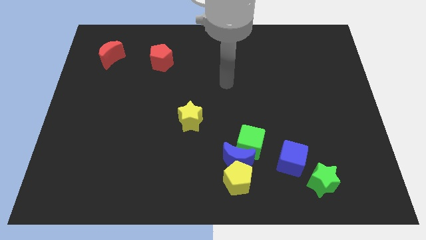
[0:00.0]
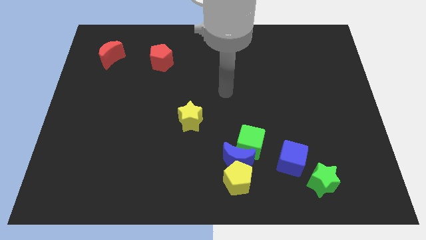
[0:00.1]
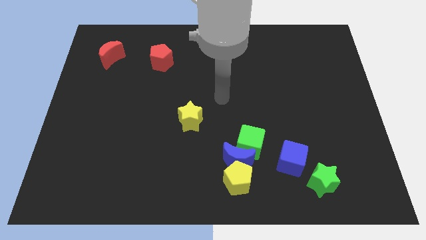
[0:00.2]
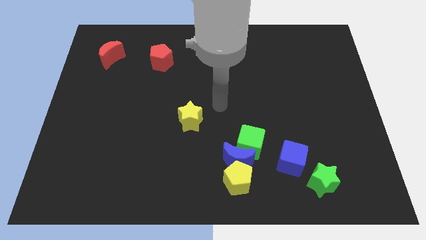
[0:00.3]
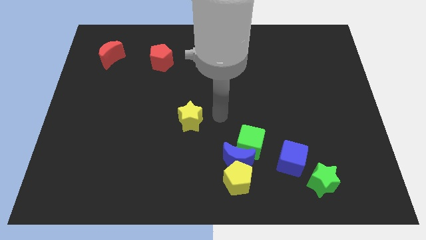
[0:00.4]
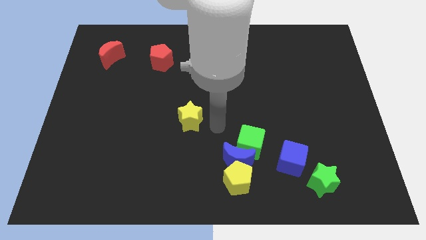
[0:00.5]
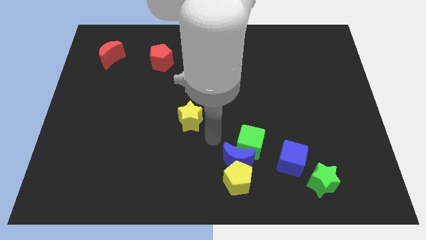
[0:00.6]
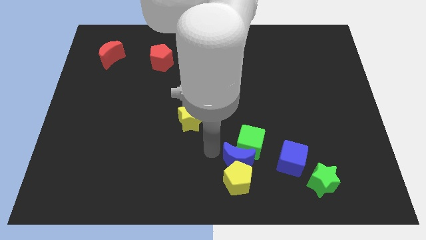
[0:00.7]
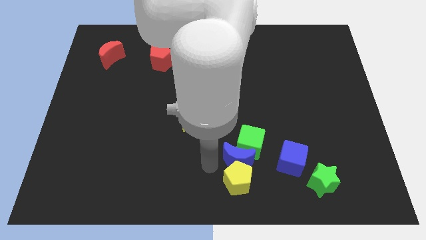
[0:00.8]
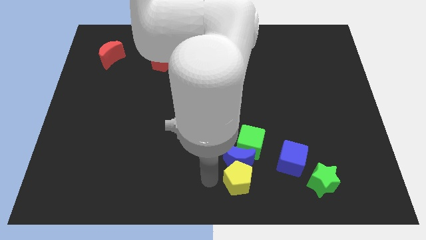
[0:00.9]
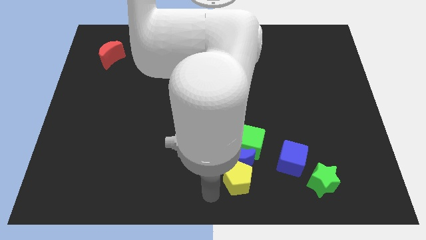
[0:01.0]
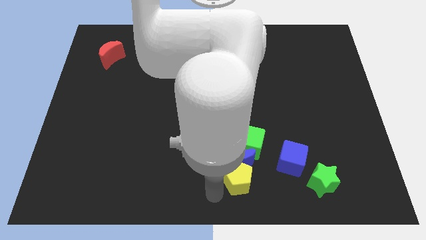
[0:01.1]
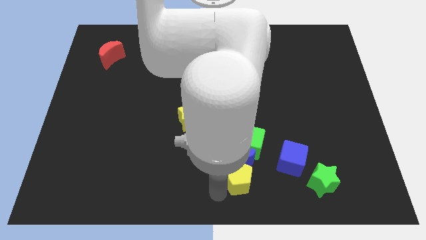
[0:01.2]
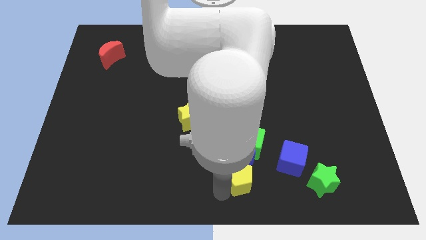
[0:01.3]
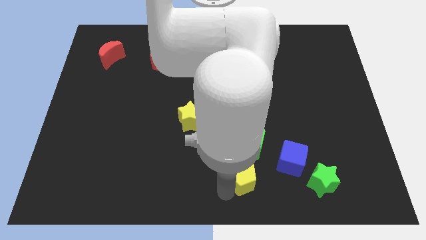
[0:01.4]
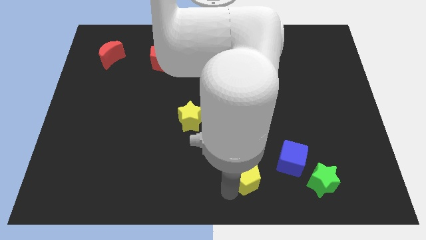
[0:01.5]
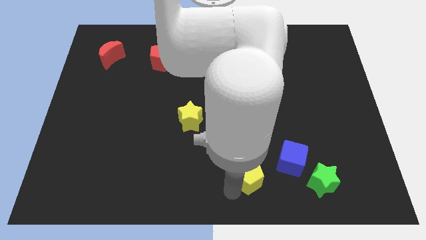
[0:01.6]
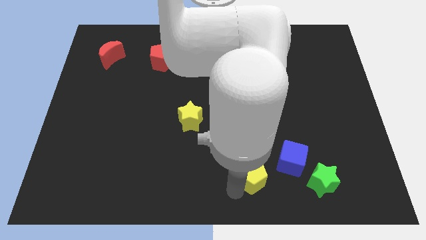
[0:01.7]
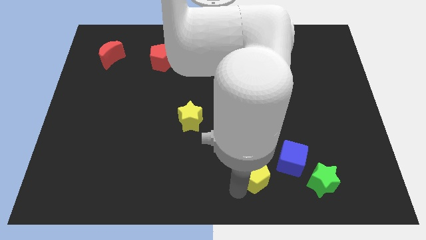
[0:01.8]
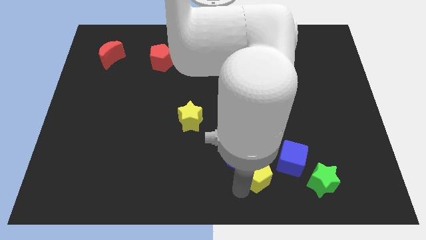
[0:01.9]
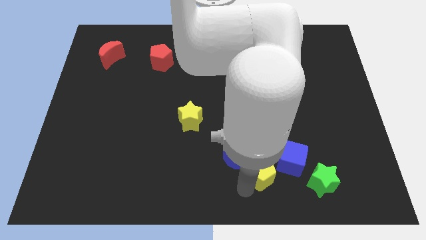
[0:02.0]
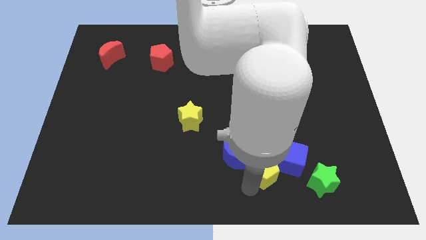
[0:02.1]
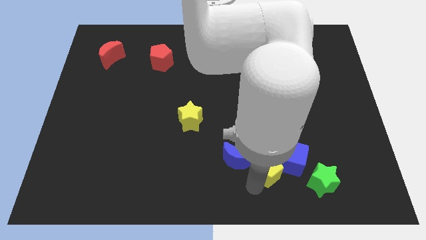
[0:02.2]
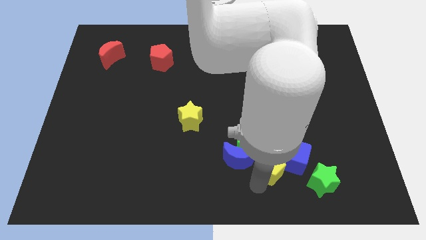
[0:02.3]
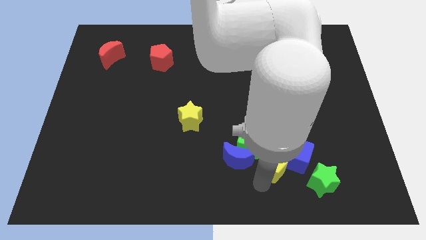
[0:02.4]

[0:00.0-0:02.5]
slightly slide the yellow pentagon up and right diagonally

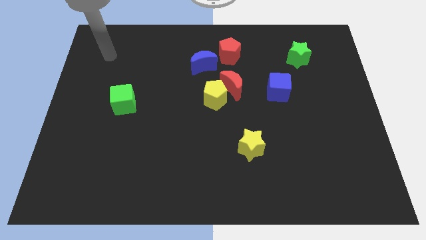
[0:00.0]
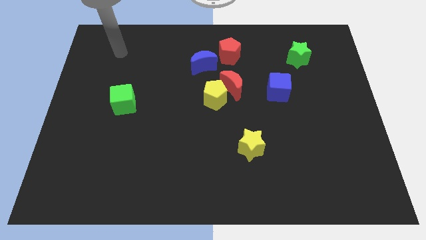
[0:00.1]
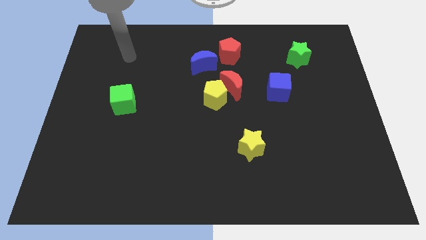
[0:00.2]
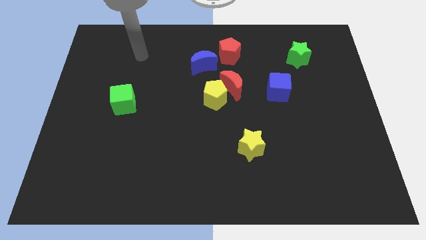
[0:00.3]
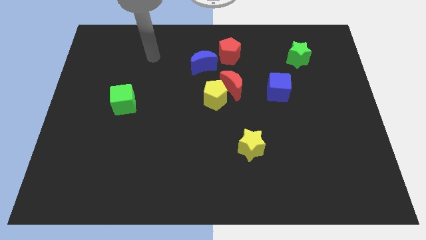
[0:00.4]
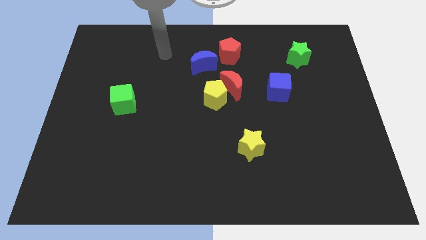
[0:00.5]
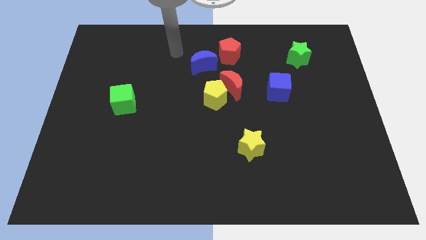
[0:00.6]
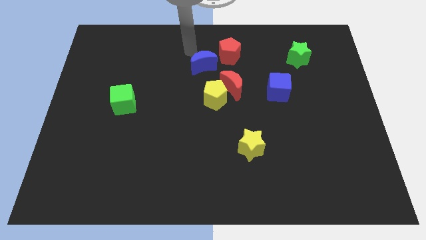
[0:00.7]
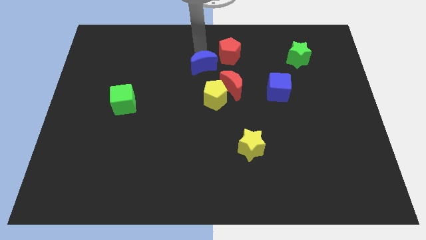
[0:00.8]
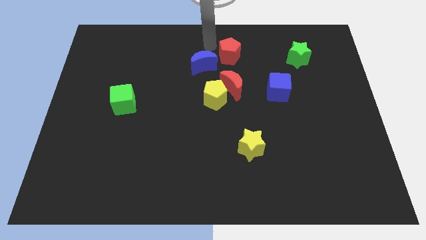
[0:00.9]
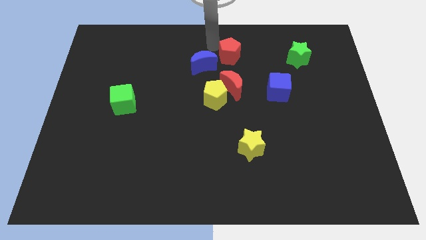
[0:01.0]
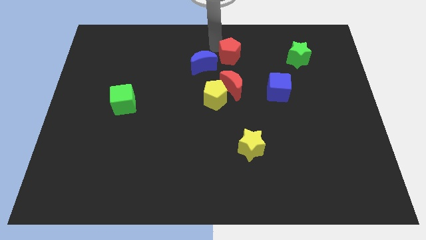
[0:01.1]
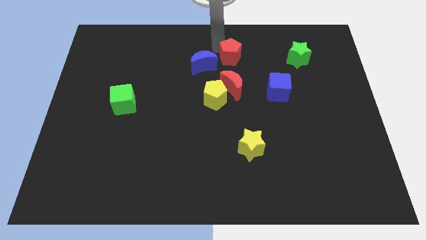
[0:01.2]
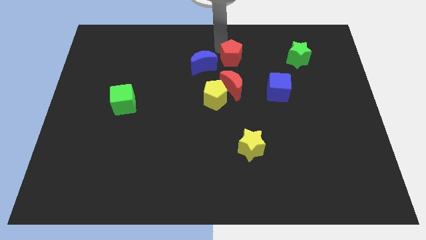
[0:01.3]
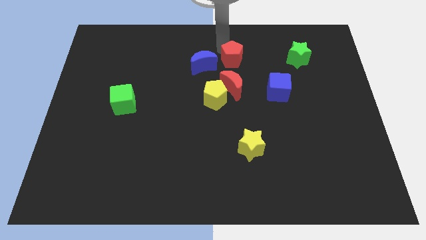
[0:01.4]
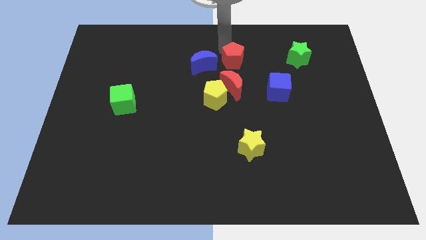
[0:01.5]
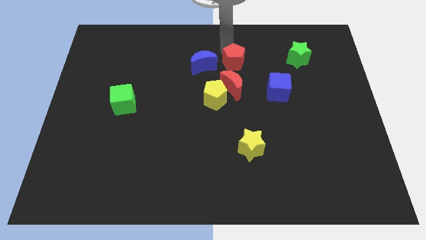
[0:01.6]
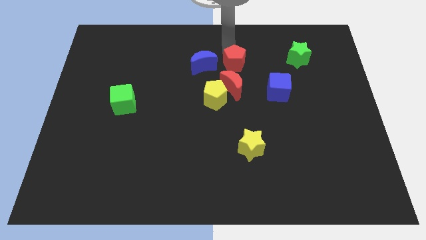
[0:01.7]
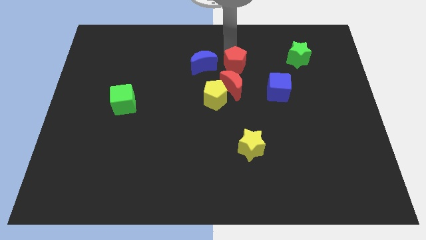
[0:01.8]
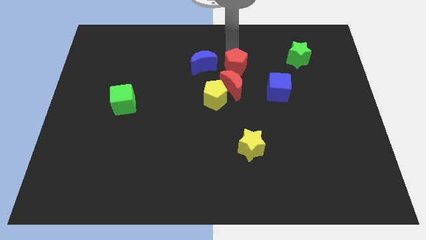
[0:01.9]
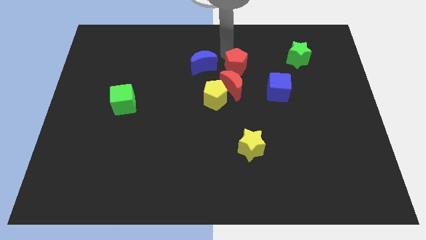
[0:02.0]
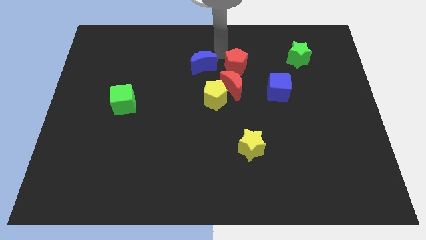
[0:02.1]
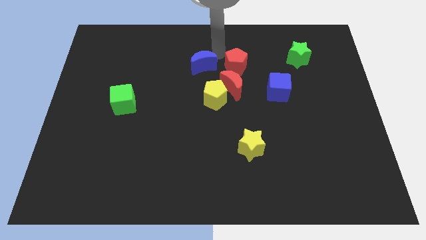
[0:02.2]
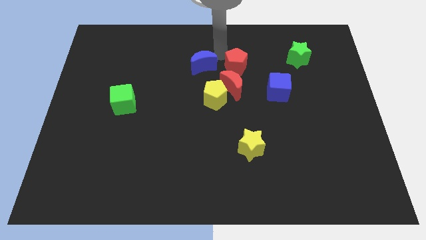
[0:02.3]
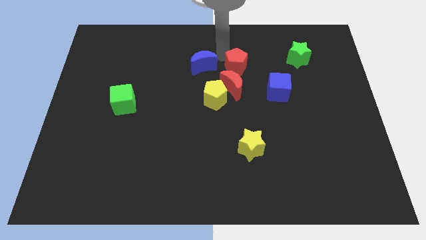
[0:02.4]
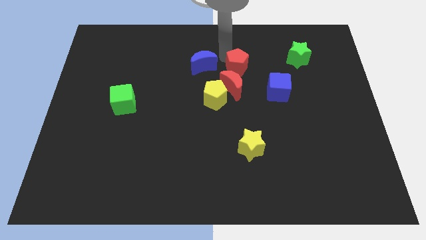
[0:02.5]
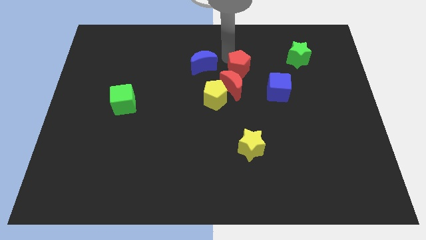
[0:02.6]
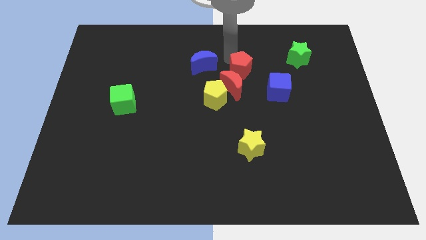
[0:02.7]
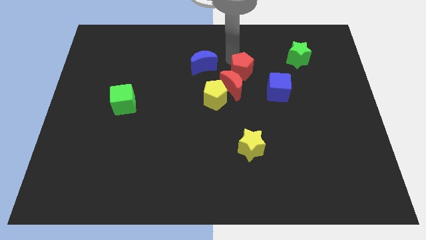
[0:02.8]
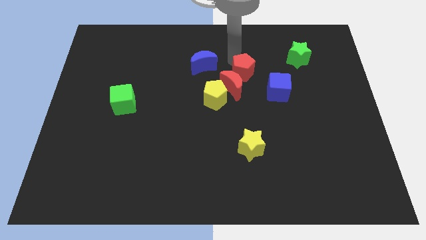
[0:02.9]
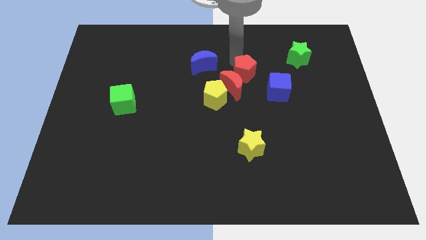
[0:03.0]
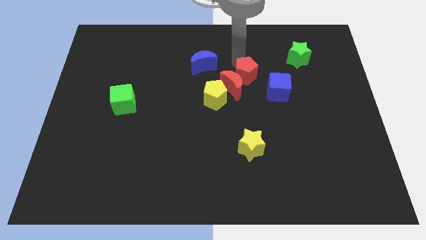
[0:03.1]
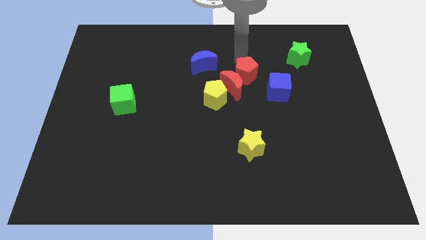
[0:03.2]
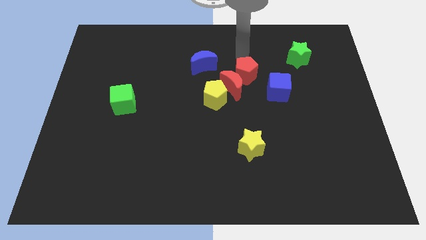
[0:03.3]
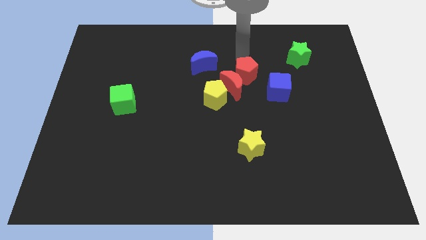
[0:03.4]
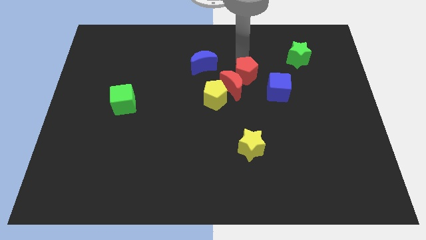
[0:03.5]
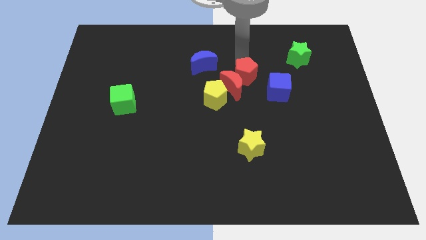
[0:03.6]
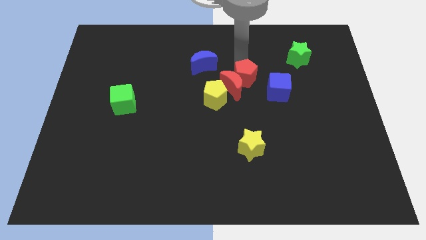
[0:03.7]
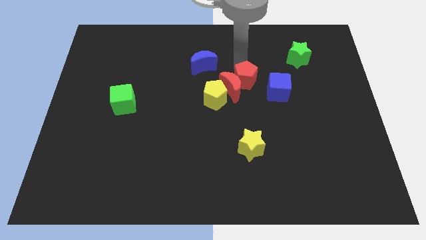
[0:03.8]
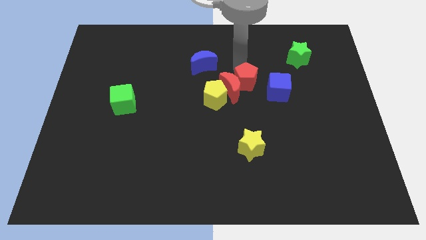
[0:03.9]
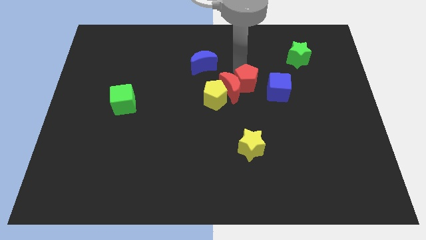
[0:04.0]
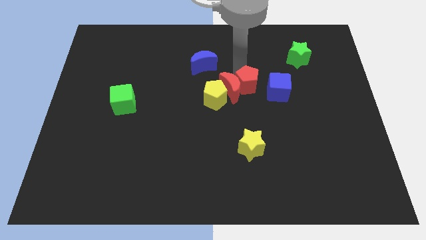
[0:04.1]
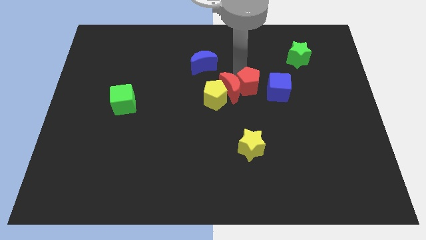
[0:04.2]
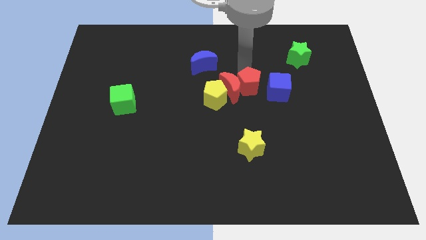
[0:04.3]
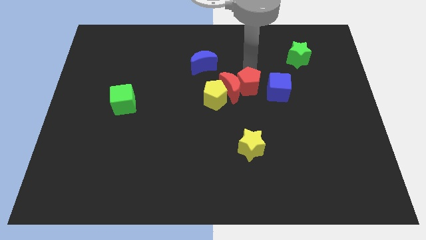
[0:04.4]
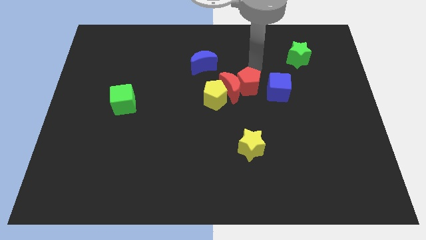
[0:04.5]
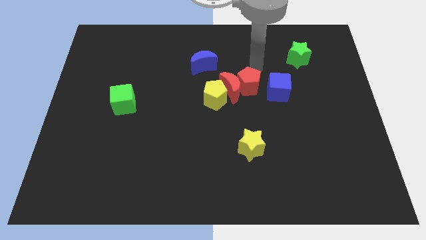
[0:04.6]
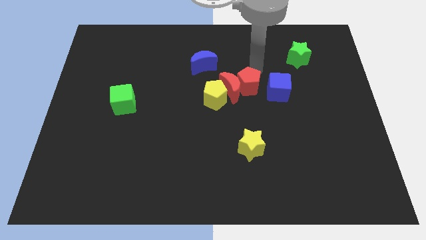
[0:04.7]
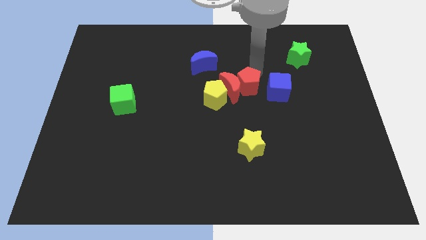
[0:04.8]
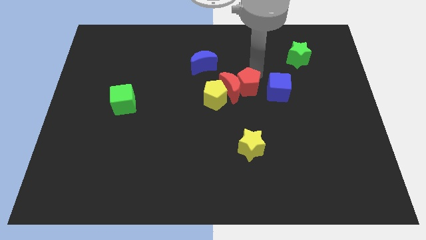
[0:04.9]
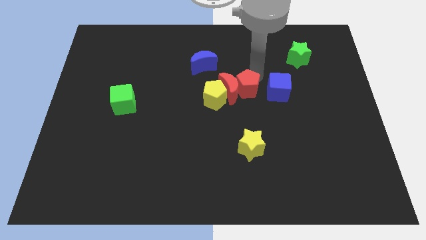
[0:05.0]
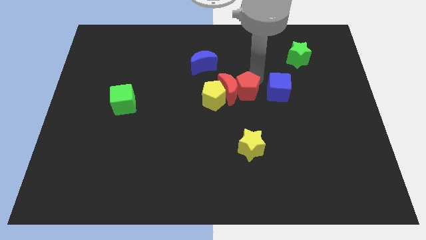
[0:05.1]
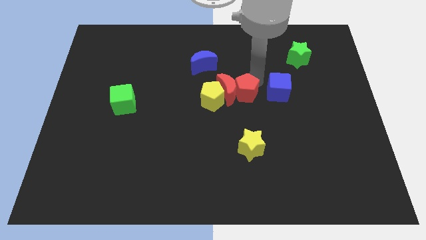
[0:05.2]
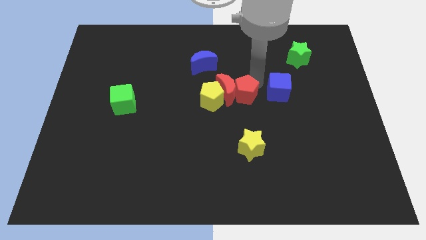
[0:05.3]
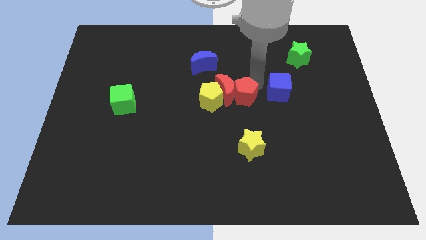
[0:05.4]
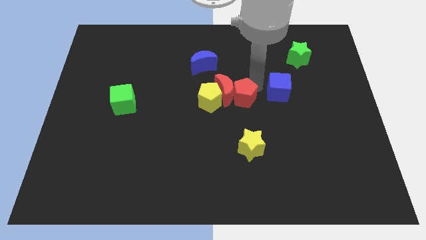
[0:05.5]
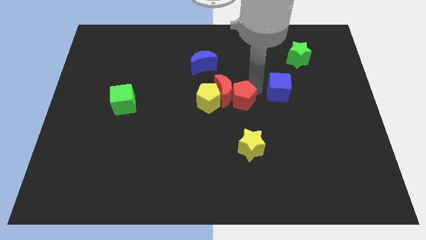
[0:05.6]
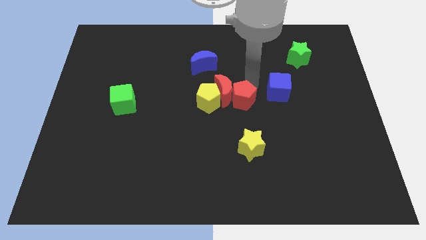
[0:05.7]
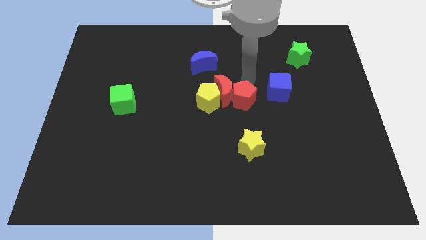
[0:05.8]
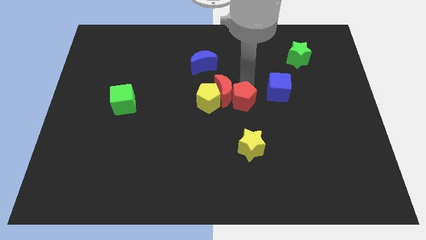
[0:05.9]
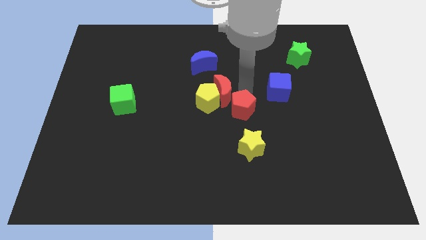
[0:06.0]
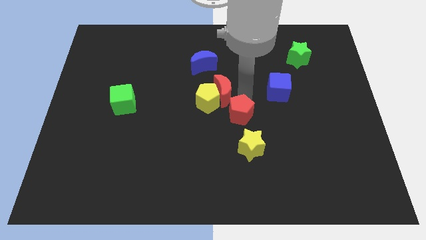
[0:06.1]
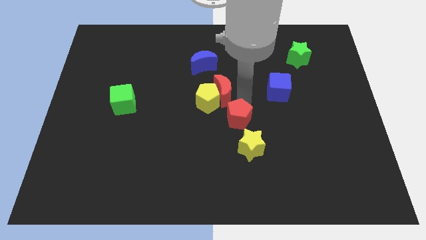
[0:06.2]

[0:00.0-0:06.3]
move the red pentagon downwards
